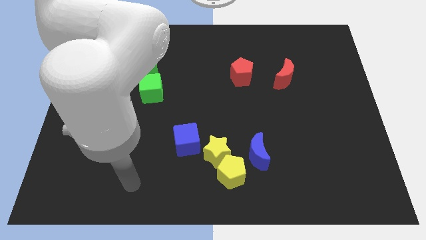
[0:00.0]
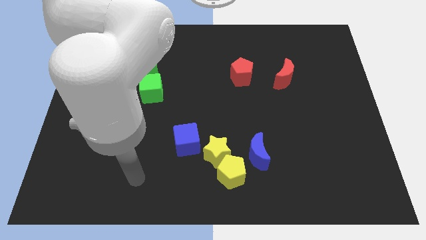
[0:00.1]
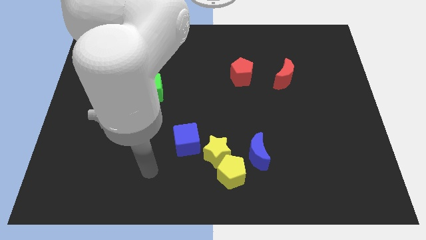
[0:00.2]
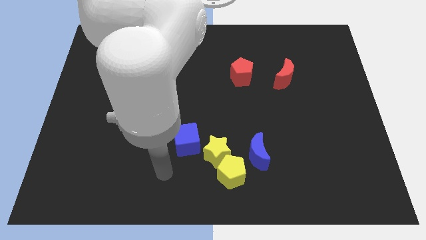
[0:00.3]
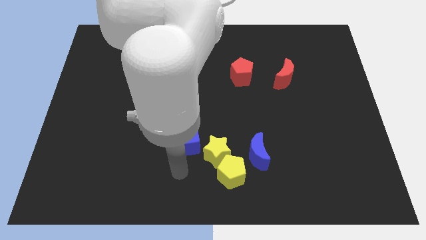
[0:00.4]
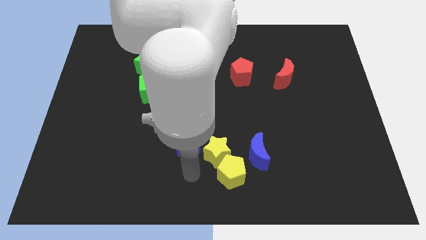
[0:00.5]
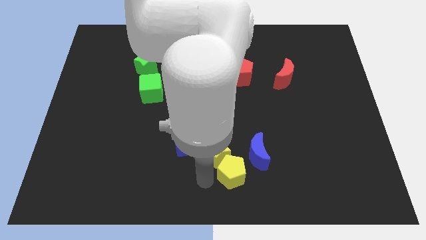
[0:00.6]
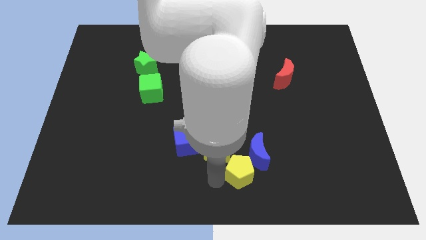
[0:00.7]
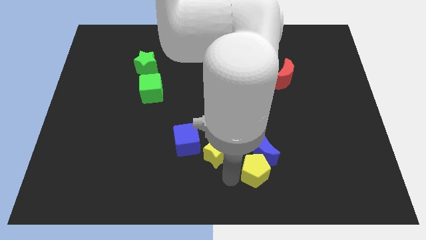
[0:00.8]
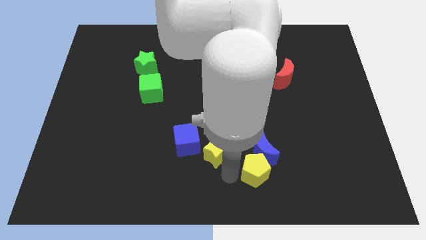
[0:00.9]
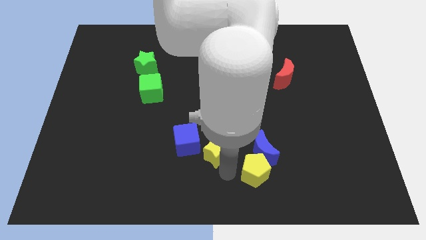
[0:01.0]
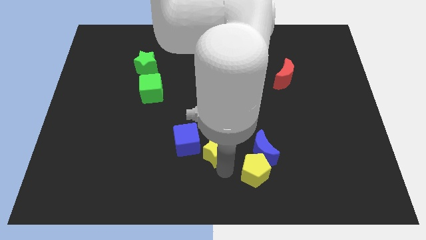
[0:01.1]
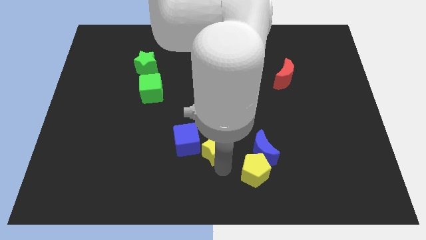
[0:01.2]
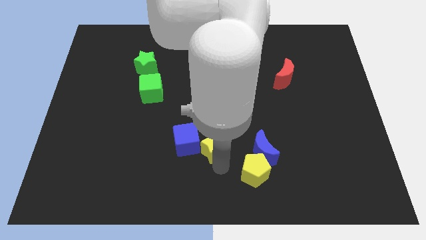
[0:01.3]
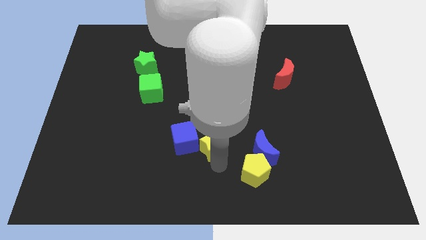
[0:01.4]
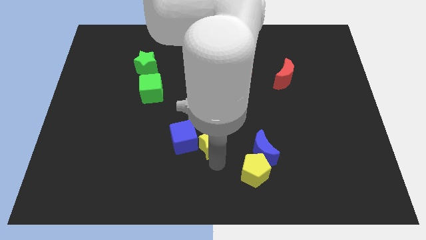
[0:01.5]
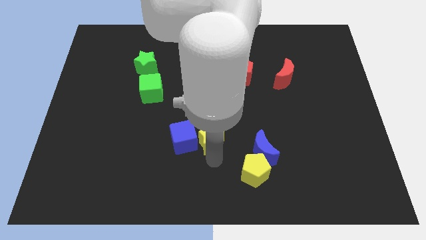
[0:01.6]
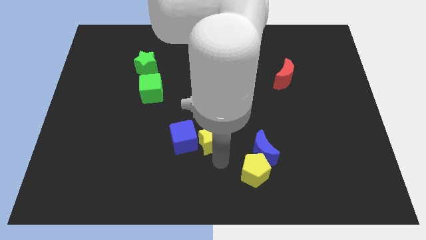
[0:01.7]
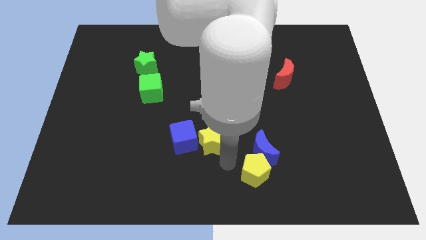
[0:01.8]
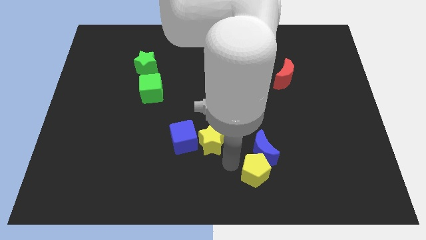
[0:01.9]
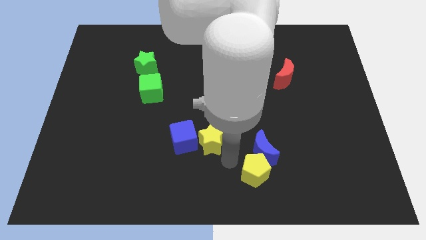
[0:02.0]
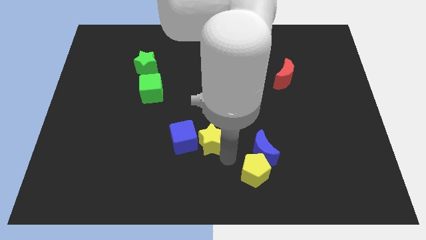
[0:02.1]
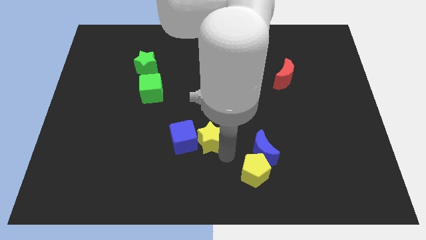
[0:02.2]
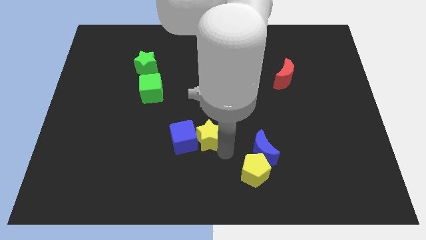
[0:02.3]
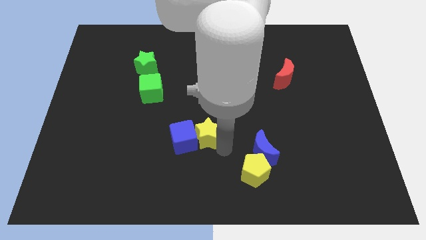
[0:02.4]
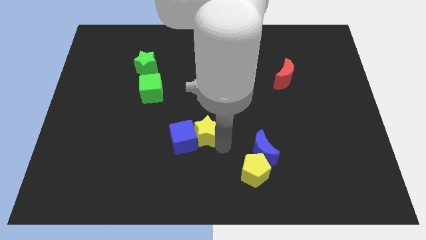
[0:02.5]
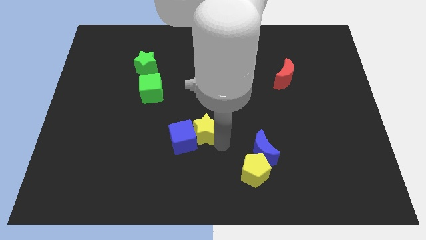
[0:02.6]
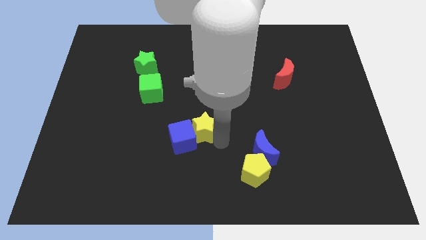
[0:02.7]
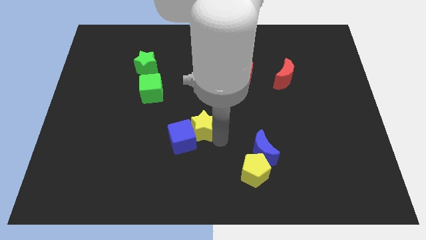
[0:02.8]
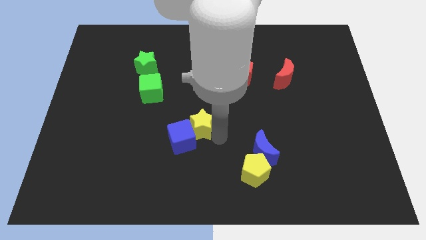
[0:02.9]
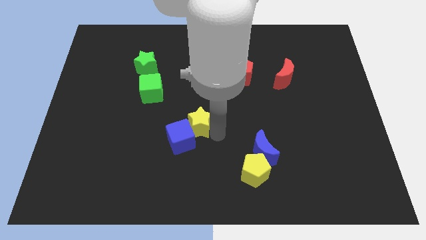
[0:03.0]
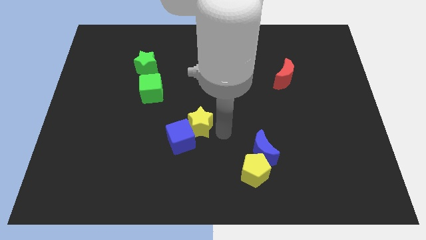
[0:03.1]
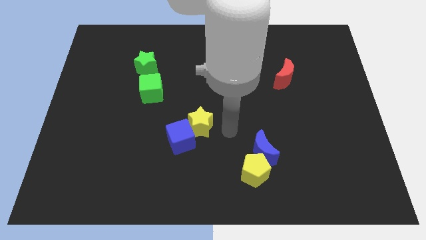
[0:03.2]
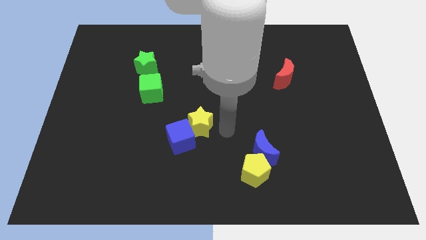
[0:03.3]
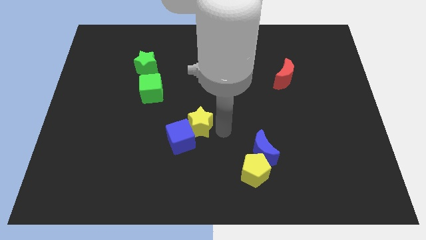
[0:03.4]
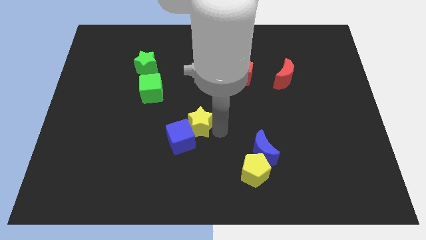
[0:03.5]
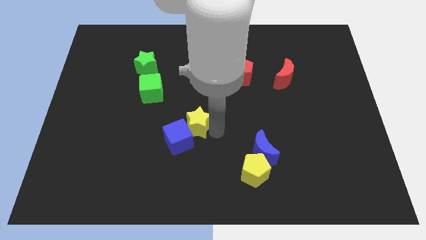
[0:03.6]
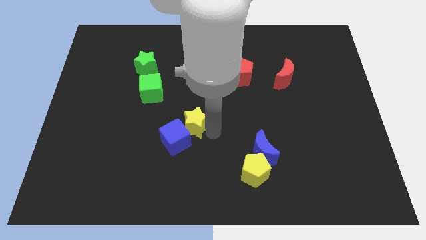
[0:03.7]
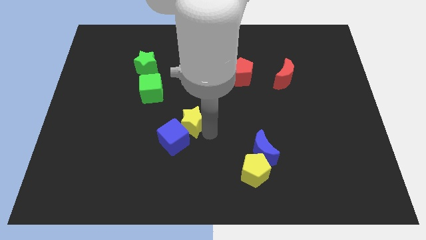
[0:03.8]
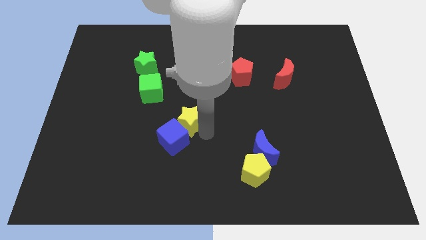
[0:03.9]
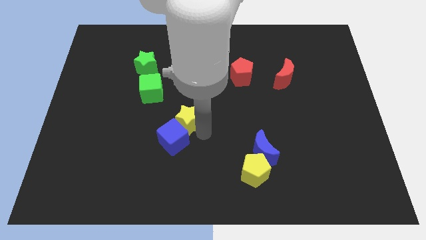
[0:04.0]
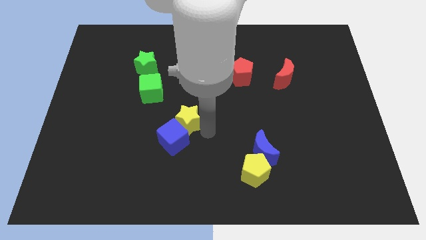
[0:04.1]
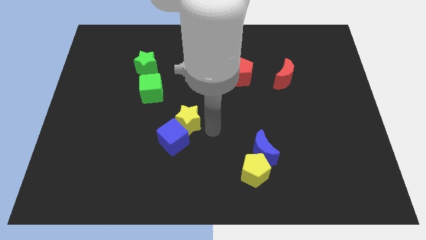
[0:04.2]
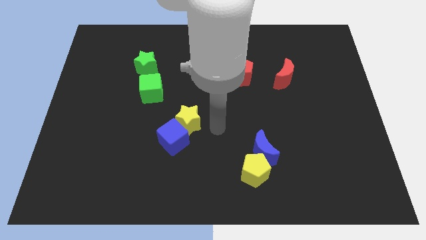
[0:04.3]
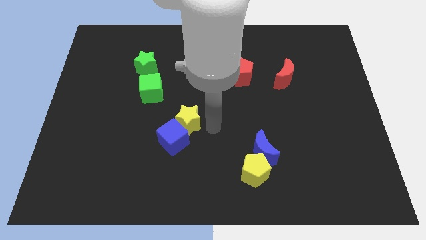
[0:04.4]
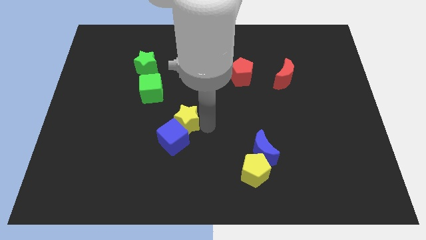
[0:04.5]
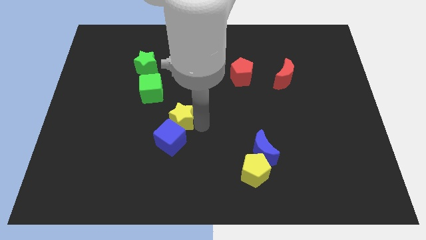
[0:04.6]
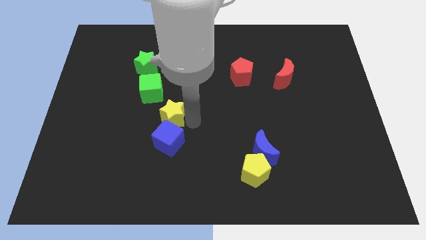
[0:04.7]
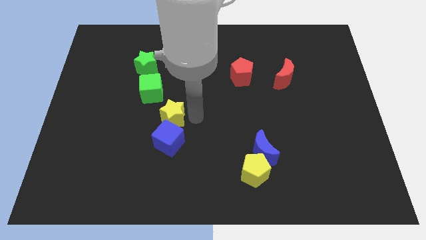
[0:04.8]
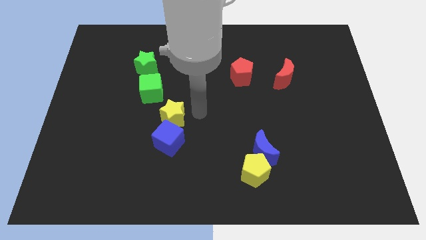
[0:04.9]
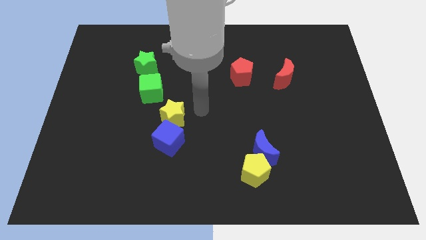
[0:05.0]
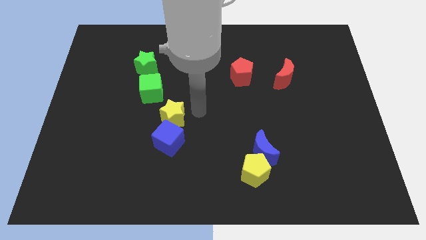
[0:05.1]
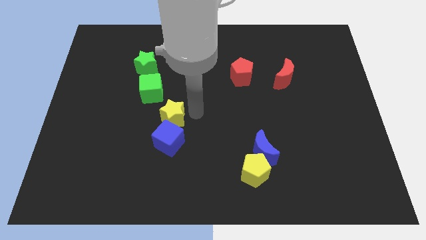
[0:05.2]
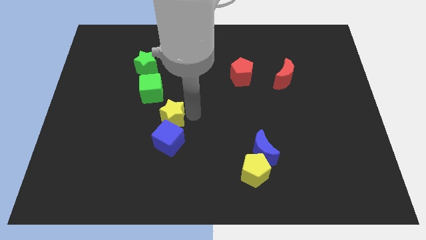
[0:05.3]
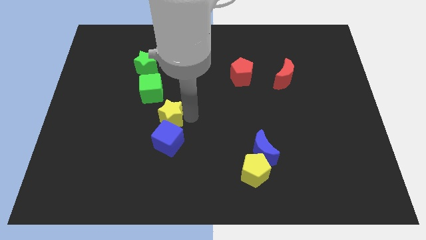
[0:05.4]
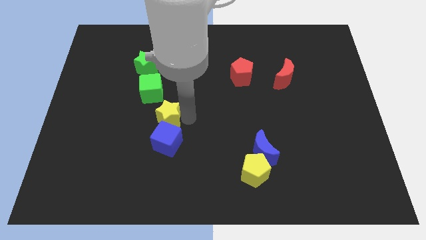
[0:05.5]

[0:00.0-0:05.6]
push the yellow star below the green cube
